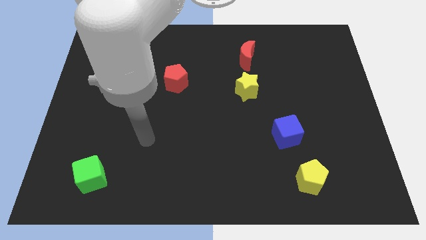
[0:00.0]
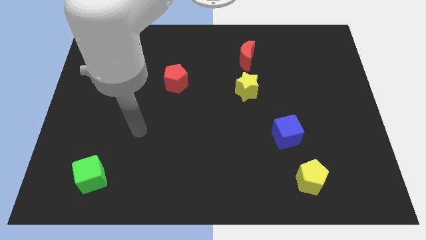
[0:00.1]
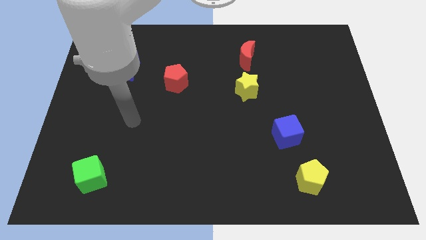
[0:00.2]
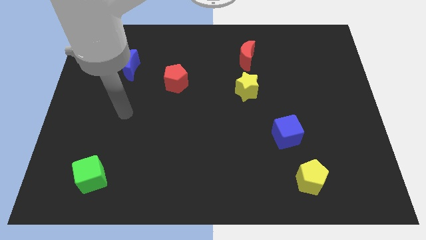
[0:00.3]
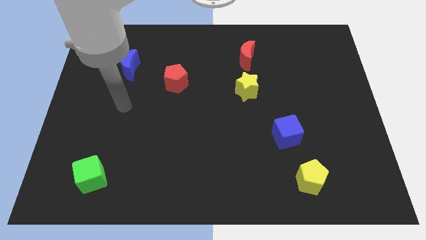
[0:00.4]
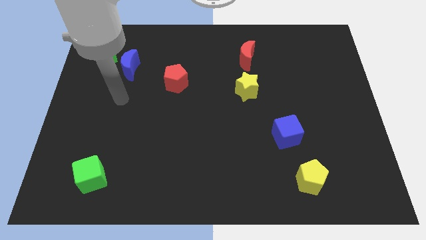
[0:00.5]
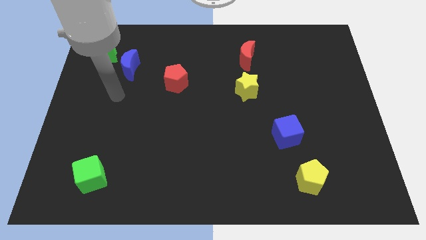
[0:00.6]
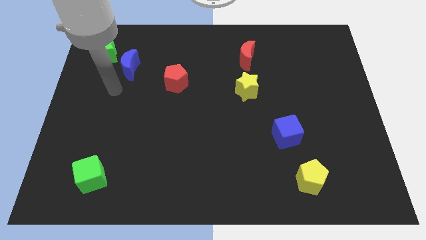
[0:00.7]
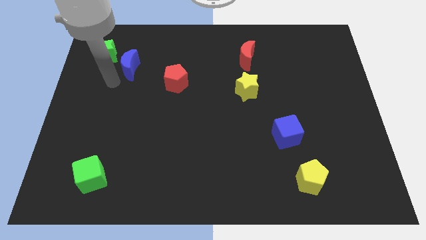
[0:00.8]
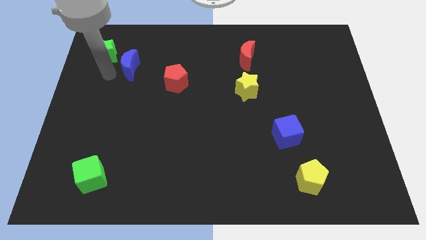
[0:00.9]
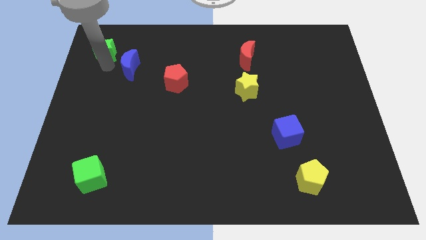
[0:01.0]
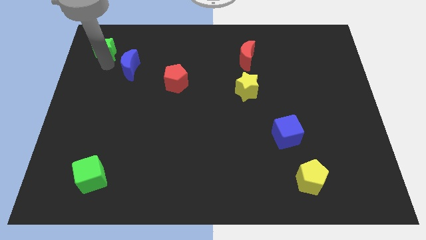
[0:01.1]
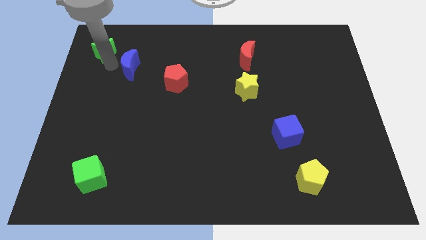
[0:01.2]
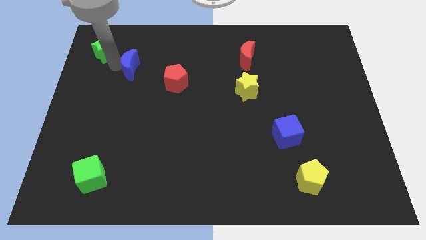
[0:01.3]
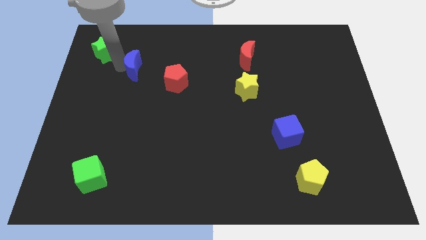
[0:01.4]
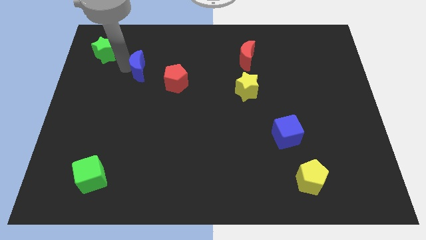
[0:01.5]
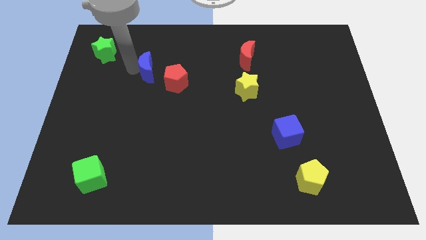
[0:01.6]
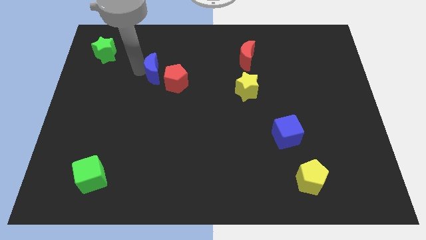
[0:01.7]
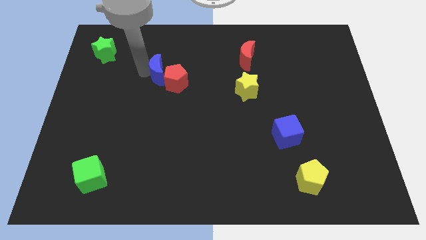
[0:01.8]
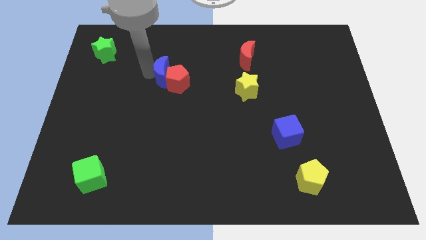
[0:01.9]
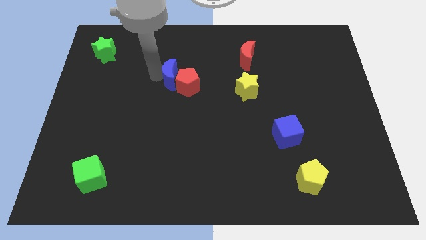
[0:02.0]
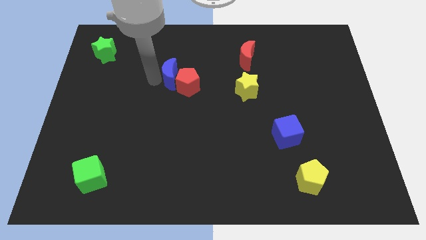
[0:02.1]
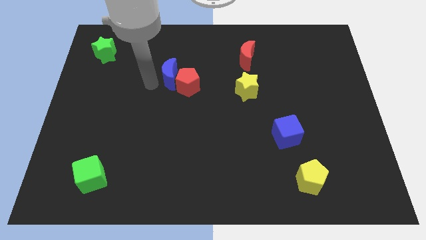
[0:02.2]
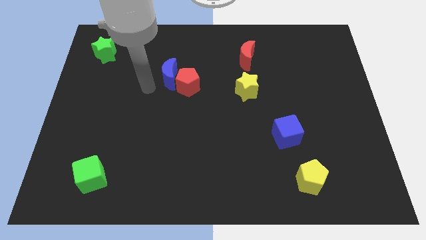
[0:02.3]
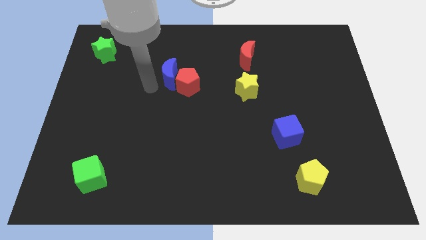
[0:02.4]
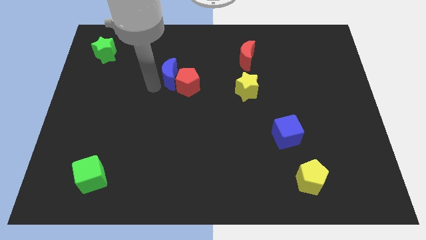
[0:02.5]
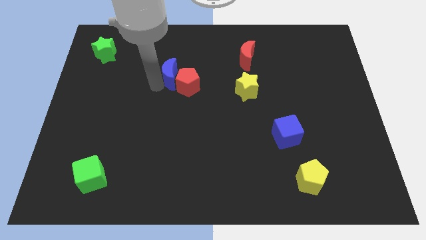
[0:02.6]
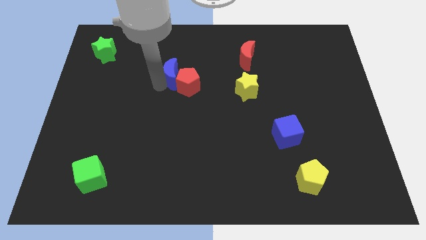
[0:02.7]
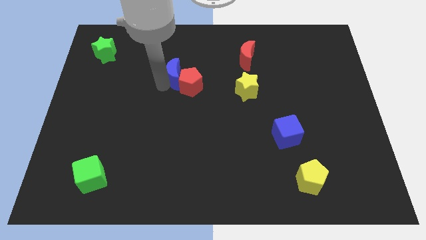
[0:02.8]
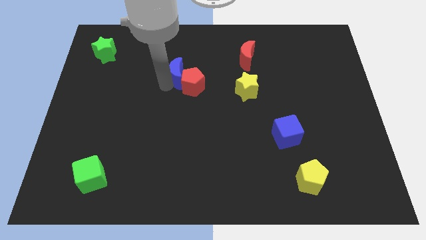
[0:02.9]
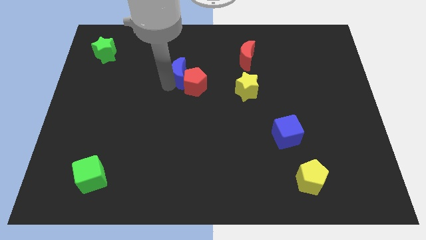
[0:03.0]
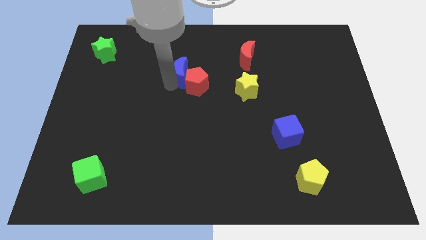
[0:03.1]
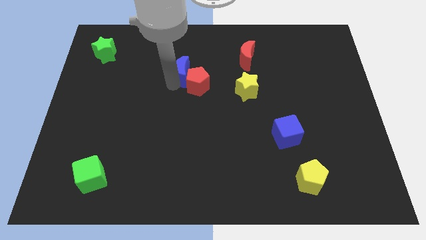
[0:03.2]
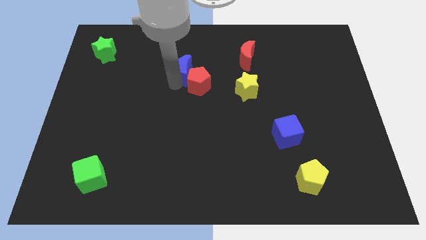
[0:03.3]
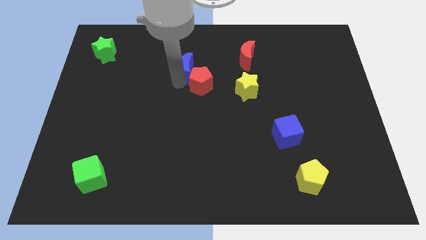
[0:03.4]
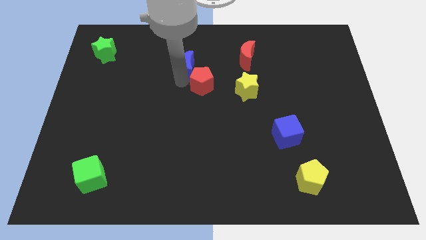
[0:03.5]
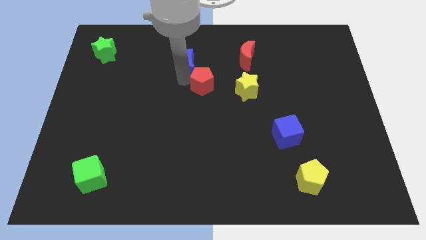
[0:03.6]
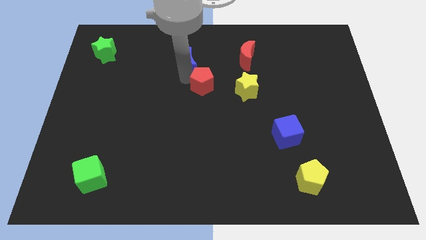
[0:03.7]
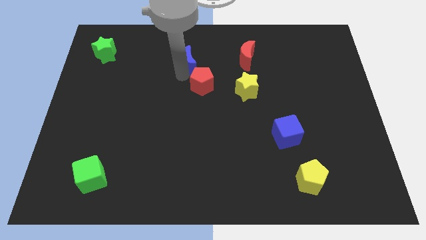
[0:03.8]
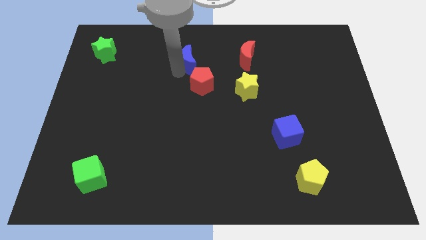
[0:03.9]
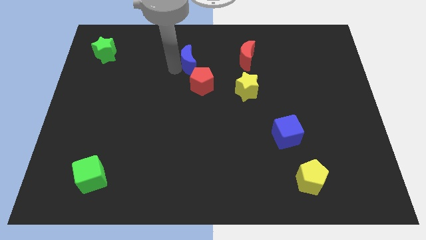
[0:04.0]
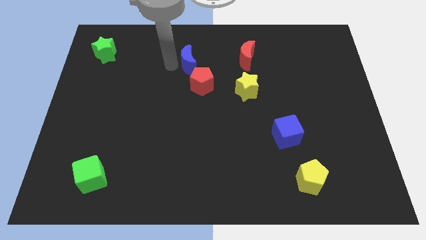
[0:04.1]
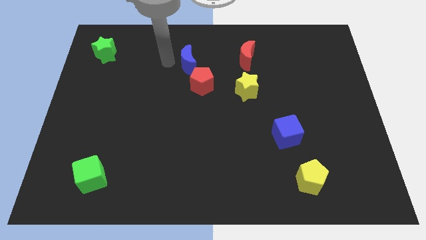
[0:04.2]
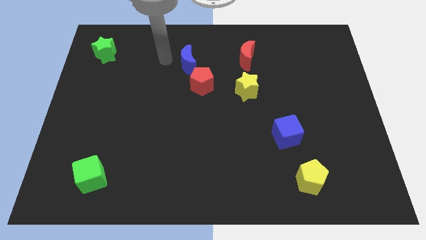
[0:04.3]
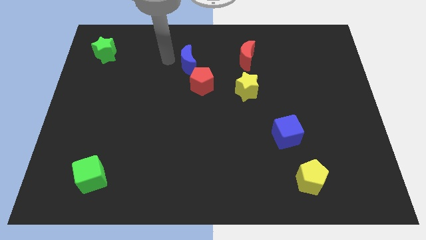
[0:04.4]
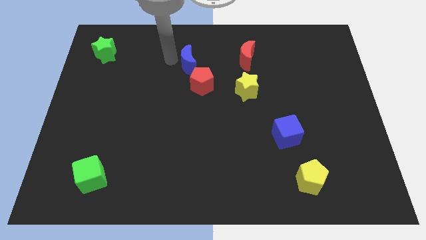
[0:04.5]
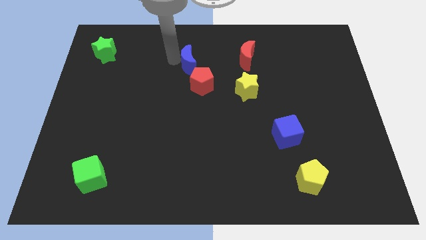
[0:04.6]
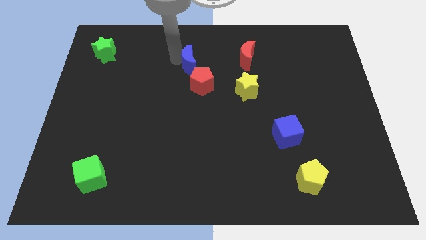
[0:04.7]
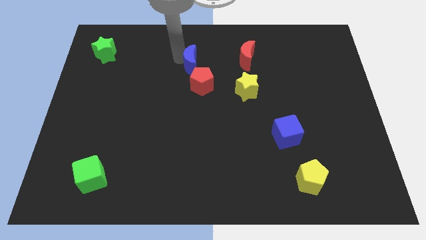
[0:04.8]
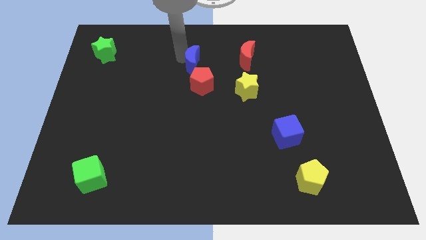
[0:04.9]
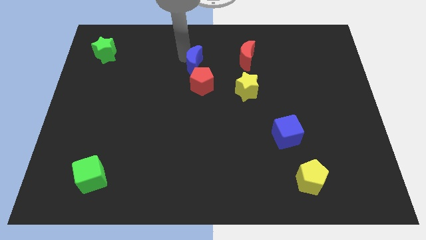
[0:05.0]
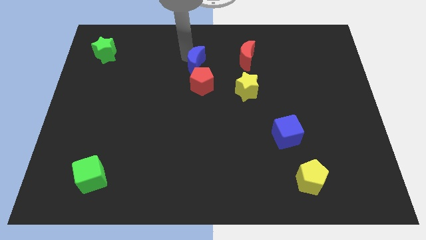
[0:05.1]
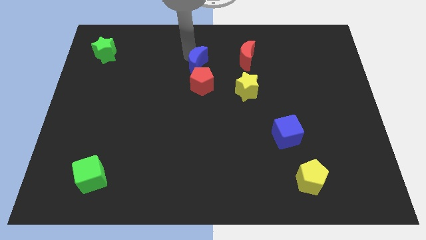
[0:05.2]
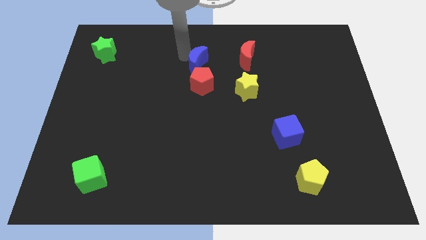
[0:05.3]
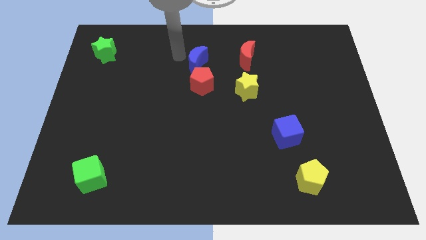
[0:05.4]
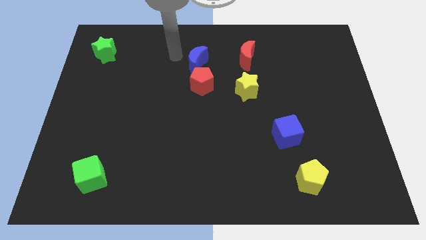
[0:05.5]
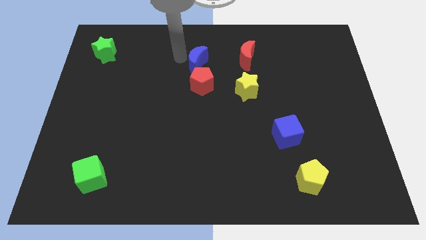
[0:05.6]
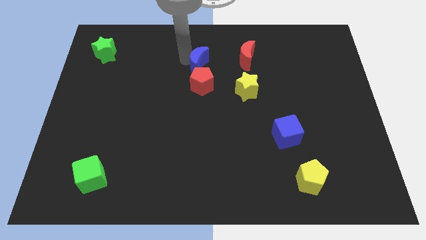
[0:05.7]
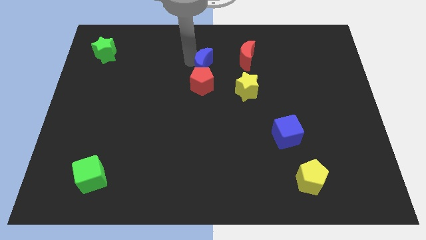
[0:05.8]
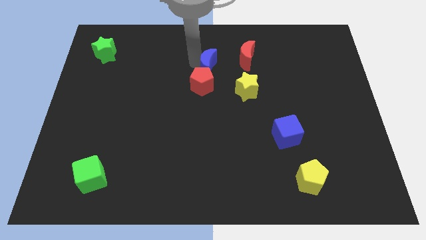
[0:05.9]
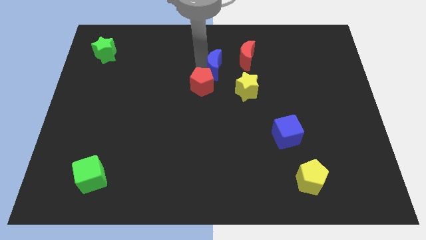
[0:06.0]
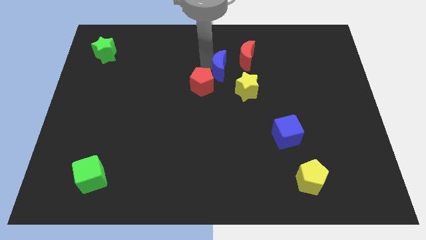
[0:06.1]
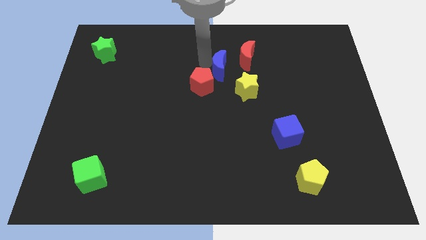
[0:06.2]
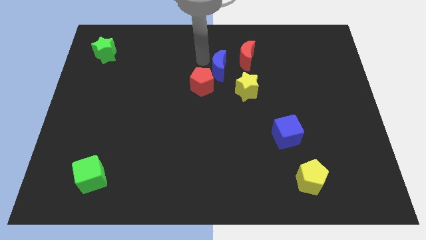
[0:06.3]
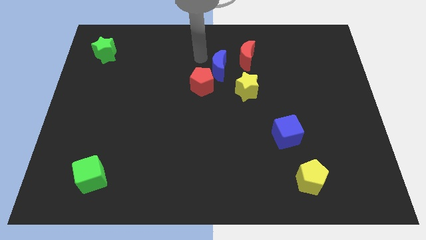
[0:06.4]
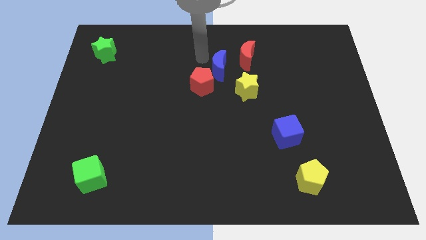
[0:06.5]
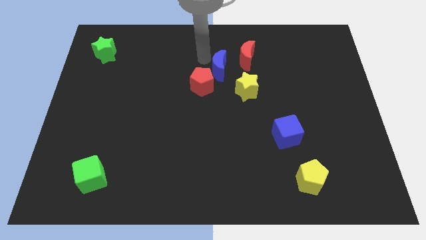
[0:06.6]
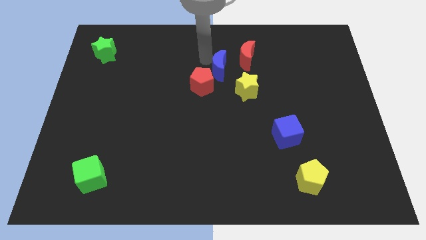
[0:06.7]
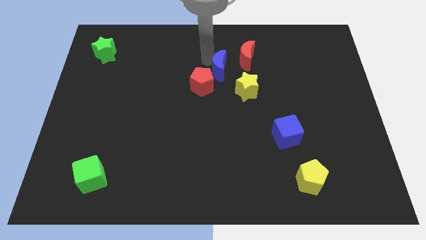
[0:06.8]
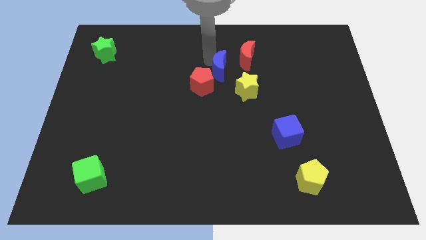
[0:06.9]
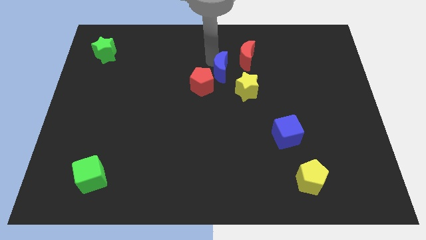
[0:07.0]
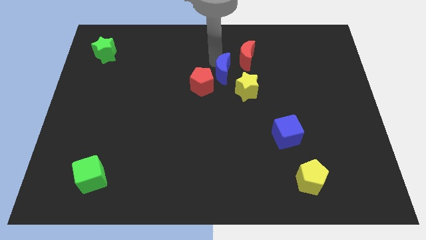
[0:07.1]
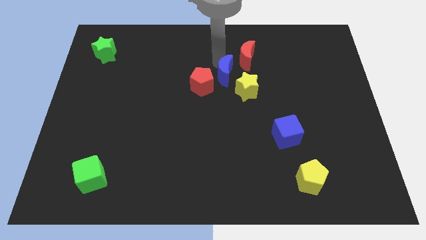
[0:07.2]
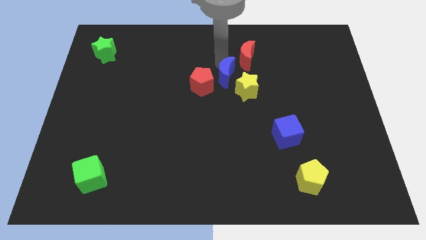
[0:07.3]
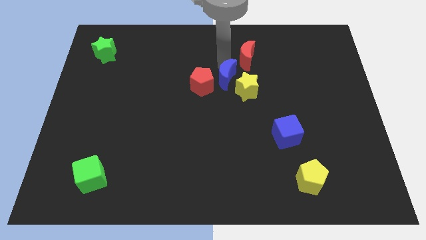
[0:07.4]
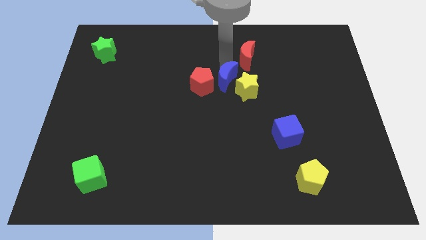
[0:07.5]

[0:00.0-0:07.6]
put the blue moon towards the yellow star

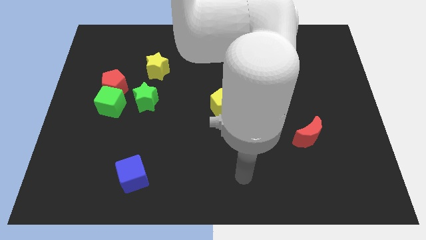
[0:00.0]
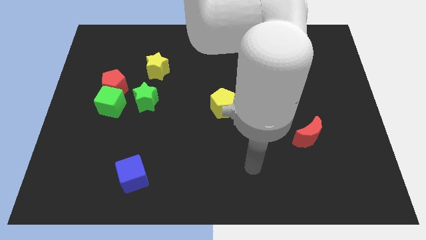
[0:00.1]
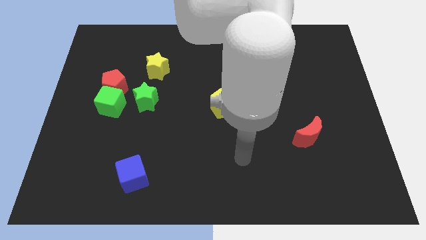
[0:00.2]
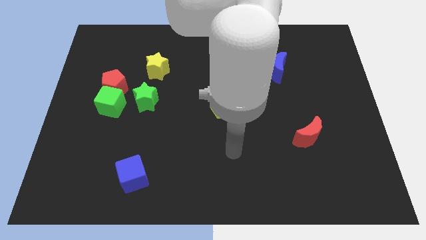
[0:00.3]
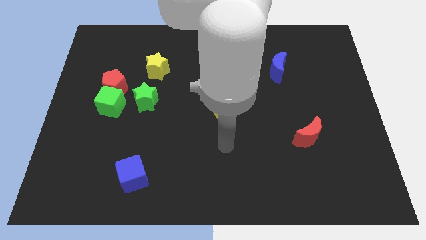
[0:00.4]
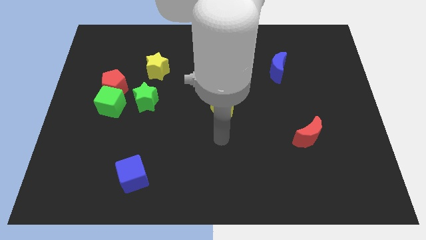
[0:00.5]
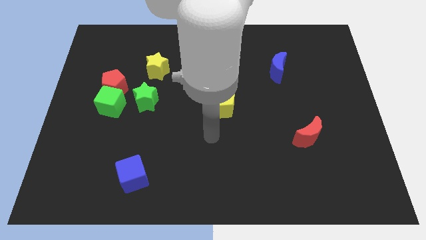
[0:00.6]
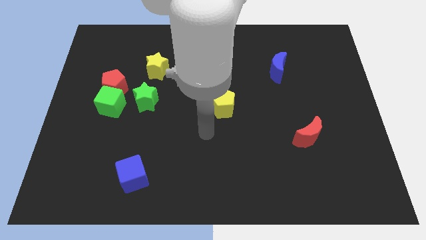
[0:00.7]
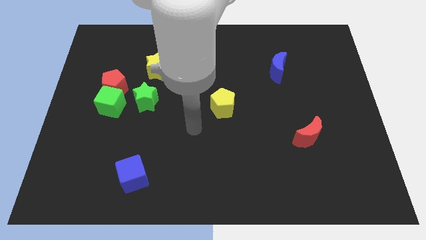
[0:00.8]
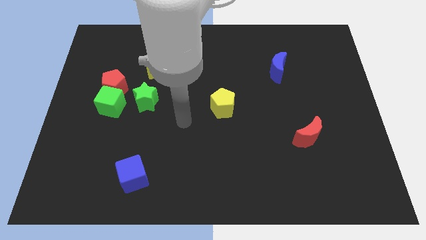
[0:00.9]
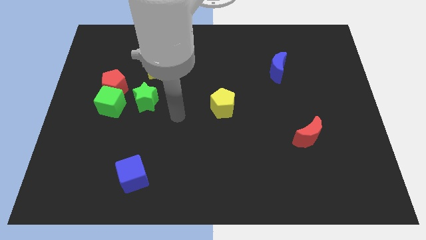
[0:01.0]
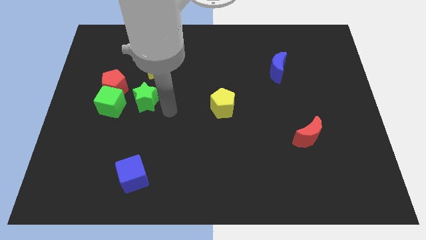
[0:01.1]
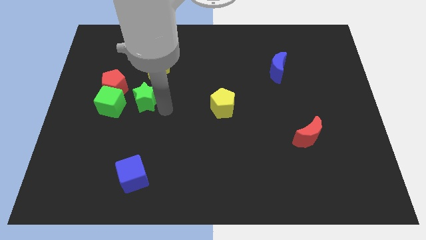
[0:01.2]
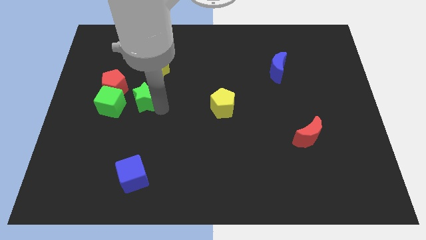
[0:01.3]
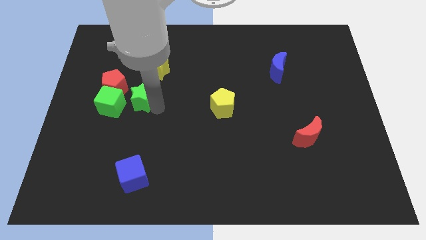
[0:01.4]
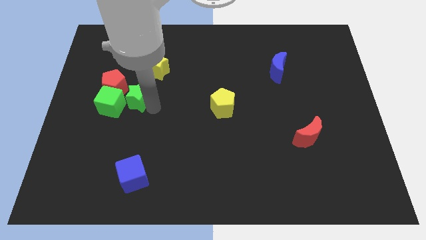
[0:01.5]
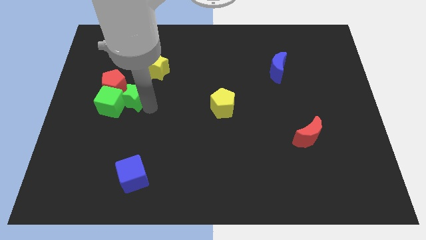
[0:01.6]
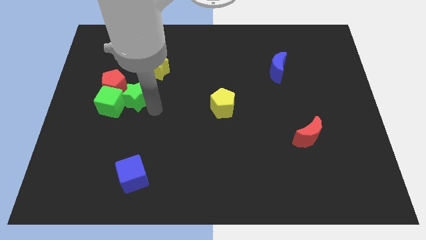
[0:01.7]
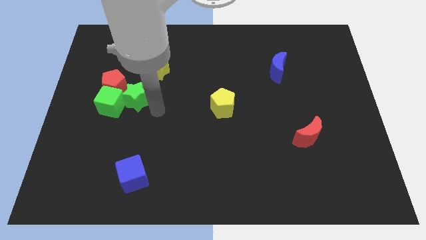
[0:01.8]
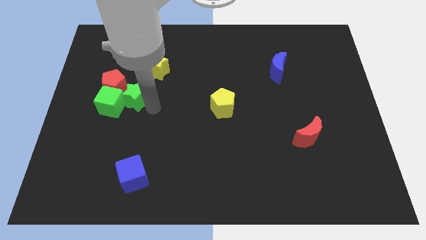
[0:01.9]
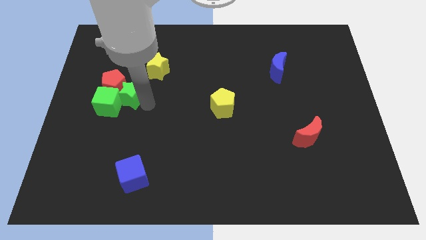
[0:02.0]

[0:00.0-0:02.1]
slide the green star to the red pentagon
